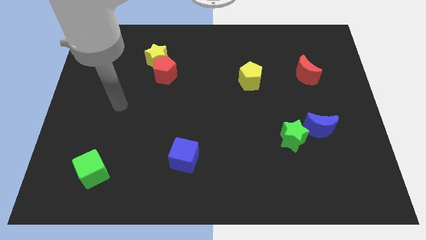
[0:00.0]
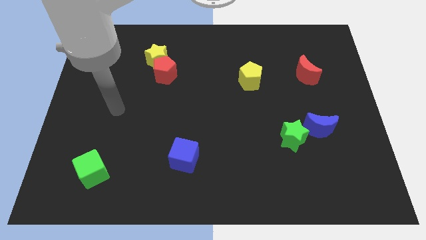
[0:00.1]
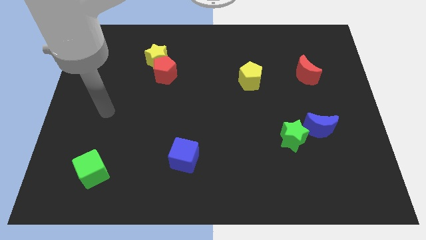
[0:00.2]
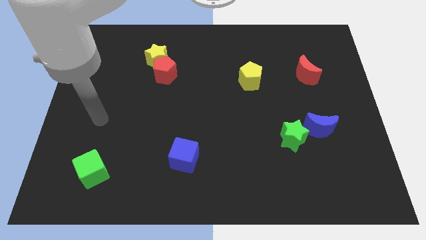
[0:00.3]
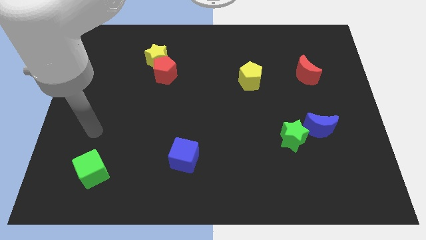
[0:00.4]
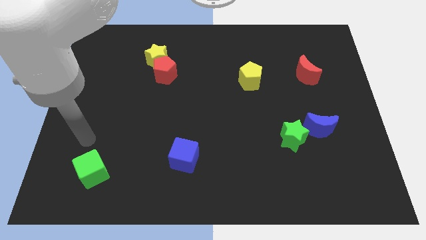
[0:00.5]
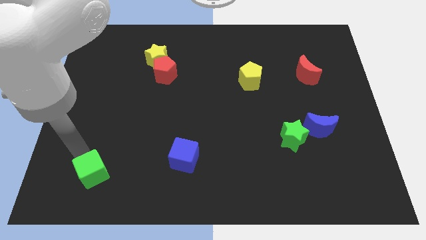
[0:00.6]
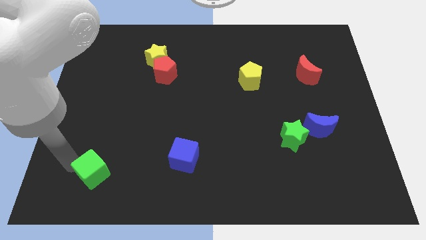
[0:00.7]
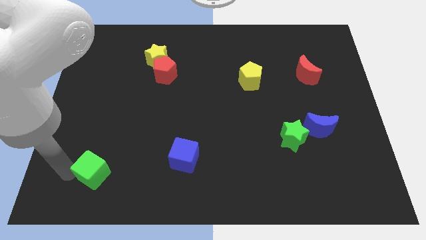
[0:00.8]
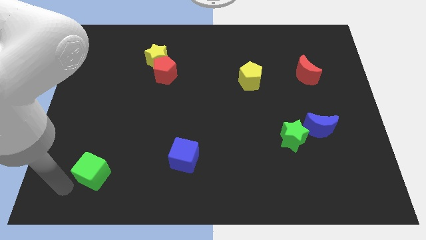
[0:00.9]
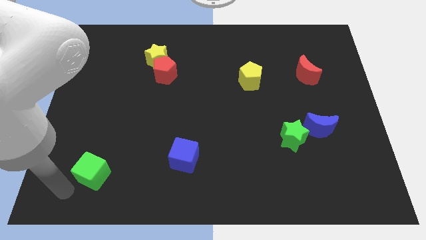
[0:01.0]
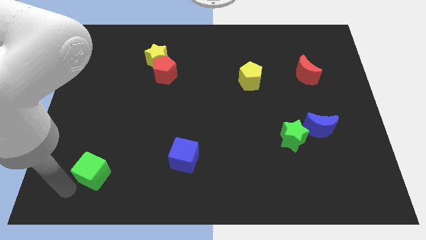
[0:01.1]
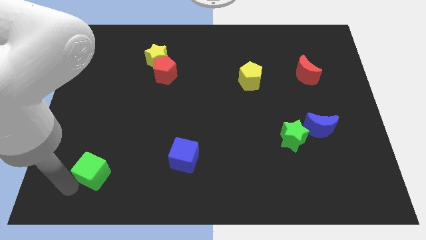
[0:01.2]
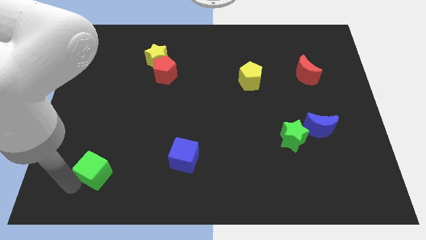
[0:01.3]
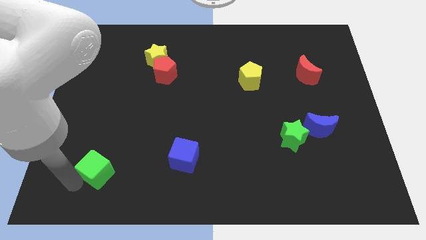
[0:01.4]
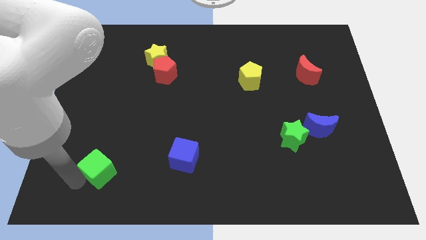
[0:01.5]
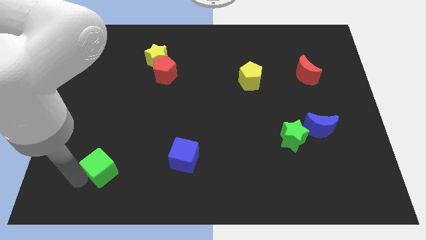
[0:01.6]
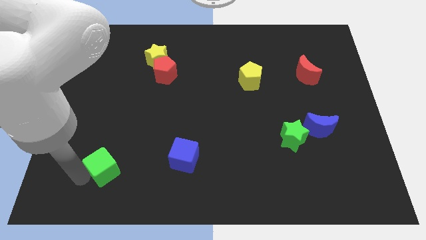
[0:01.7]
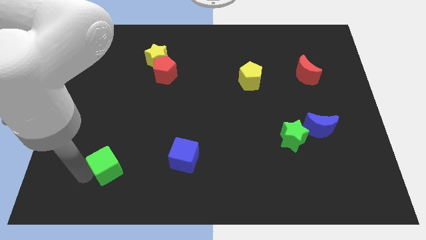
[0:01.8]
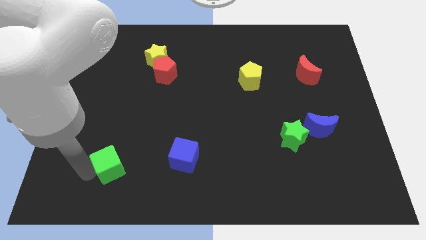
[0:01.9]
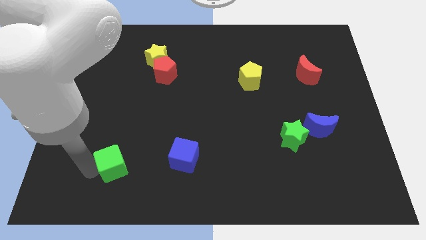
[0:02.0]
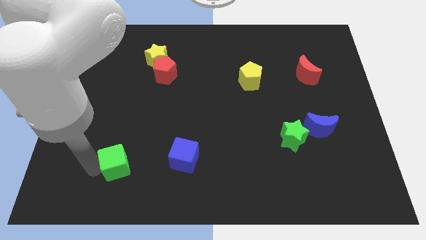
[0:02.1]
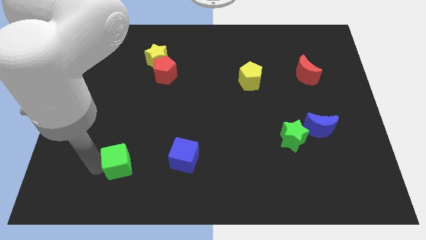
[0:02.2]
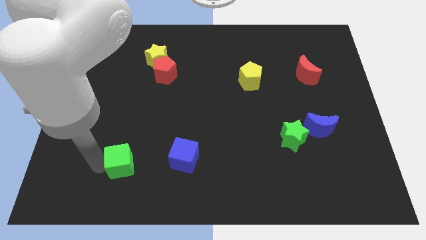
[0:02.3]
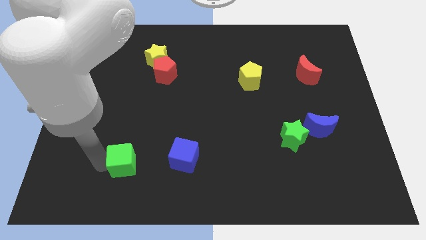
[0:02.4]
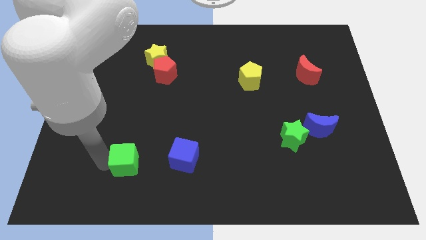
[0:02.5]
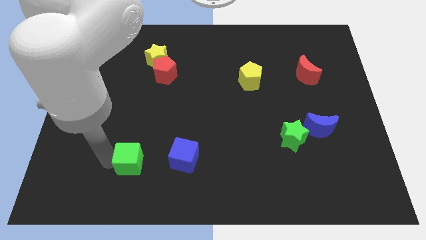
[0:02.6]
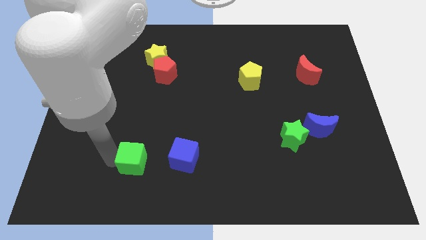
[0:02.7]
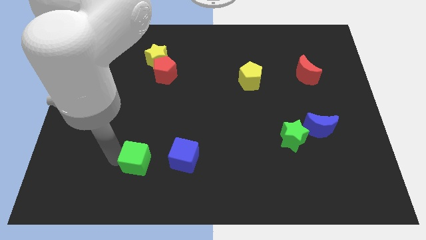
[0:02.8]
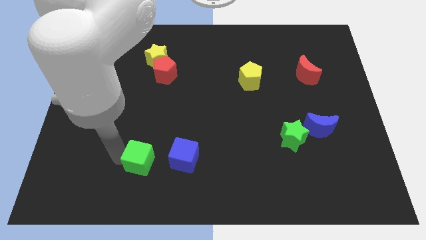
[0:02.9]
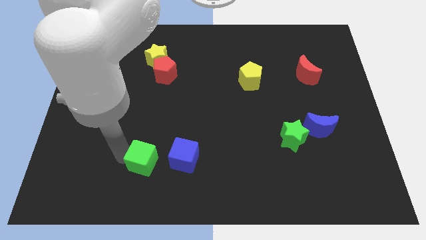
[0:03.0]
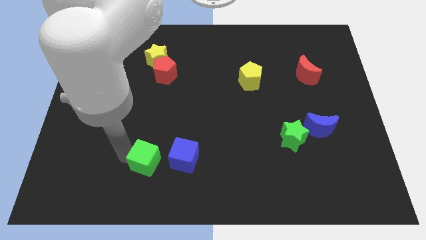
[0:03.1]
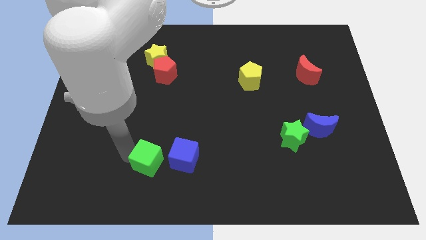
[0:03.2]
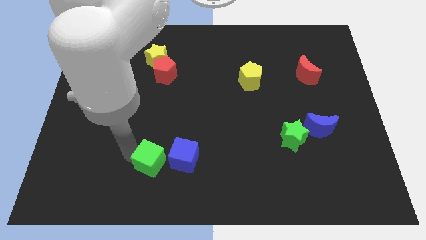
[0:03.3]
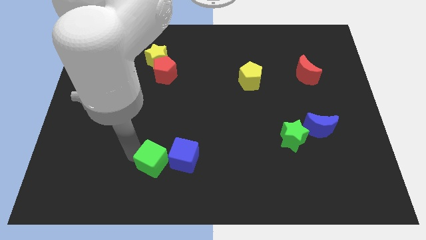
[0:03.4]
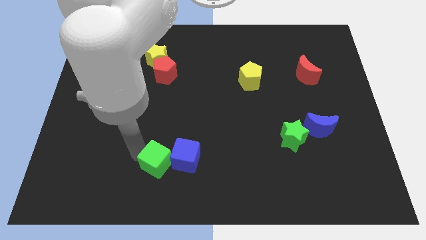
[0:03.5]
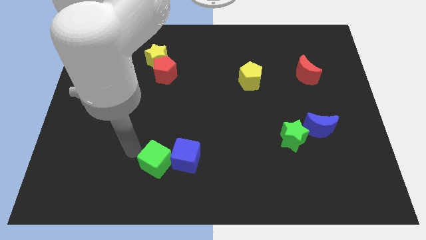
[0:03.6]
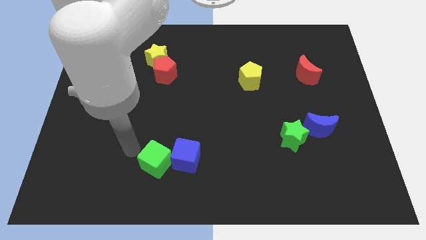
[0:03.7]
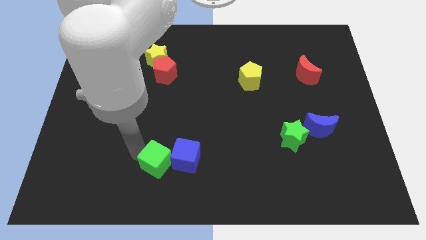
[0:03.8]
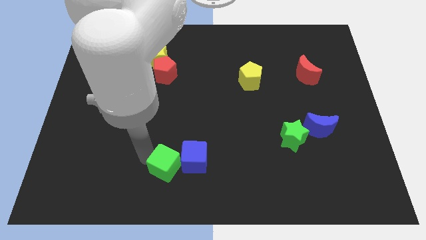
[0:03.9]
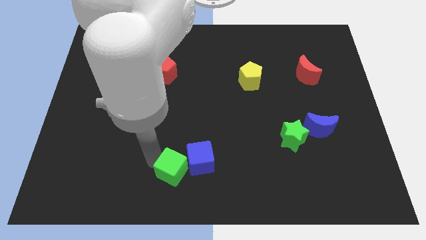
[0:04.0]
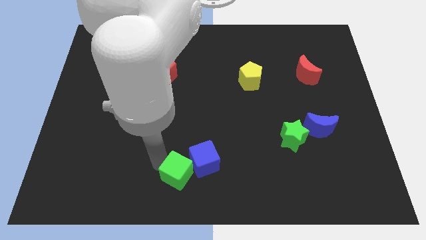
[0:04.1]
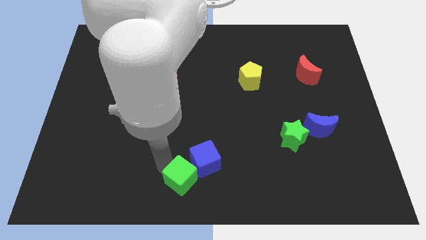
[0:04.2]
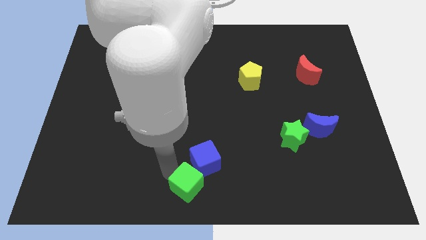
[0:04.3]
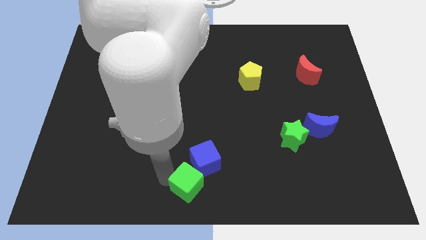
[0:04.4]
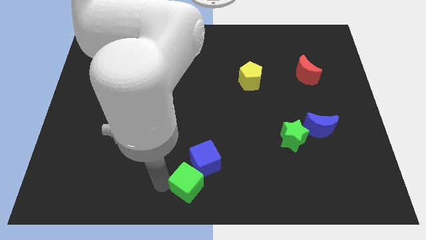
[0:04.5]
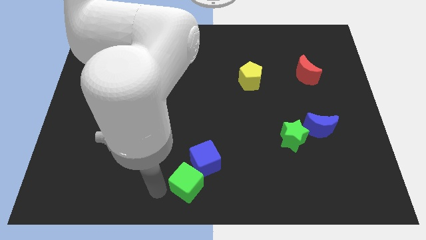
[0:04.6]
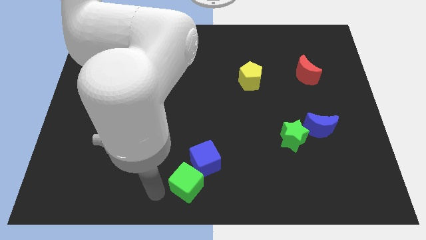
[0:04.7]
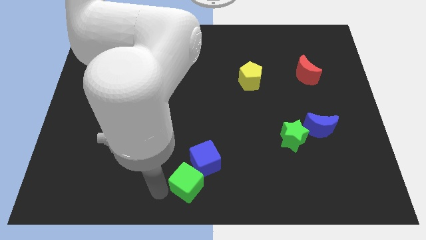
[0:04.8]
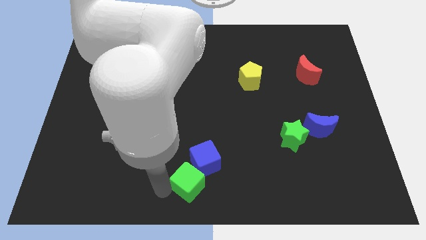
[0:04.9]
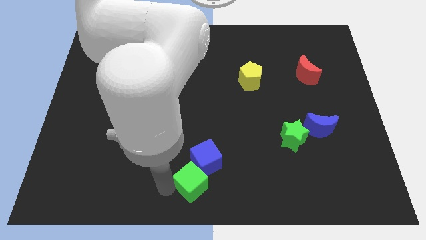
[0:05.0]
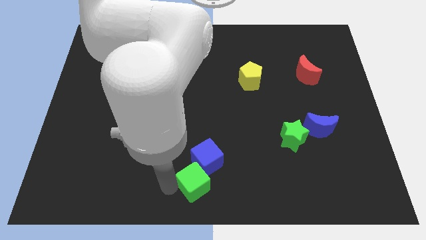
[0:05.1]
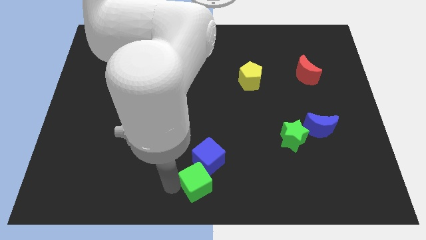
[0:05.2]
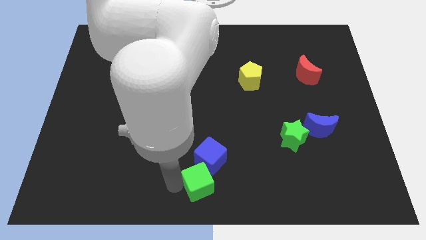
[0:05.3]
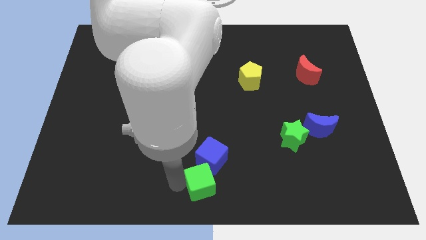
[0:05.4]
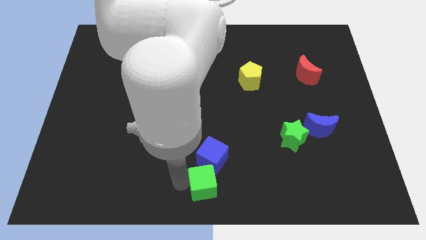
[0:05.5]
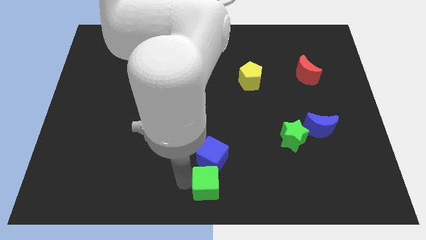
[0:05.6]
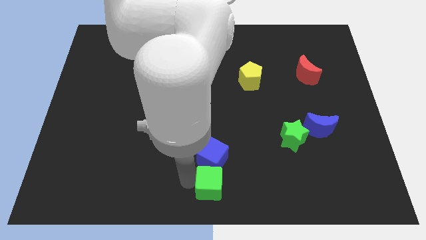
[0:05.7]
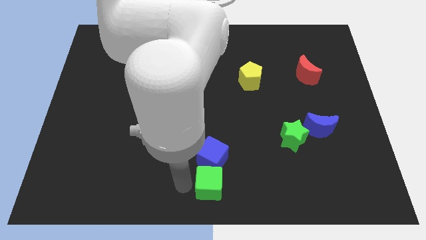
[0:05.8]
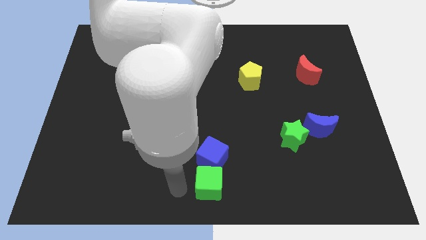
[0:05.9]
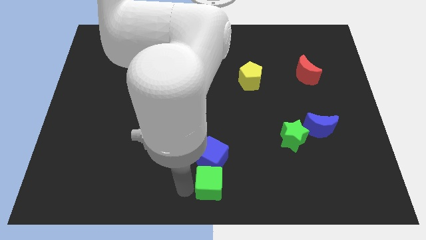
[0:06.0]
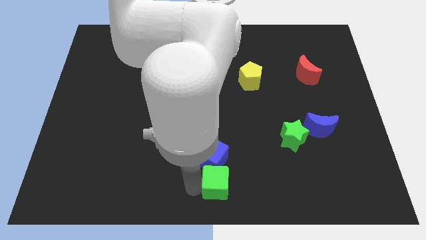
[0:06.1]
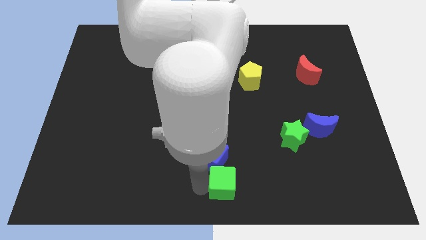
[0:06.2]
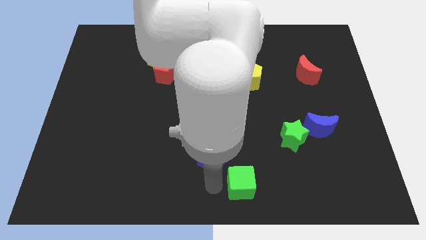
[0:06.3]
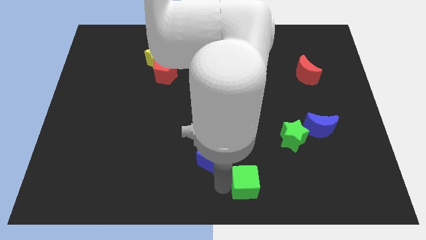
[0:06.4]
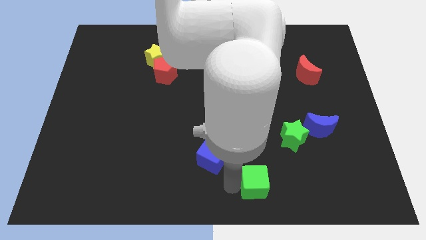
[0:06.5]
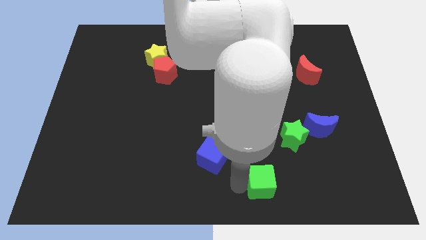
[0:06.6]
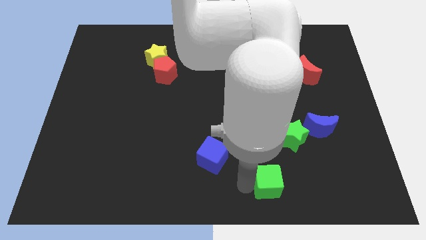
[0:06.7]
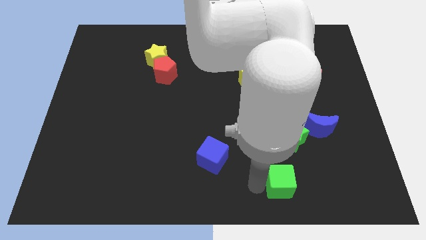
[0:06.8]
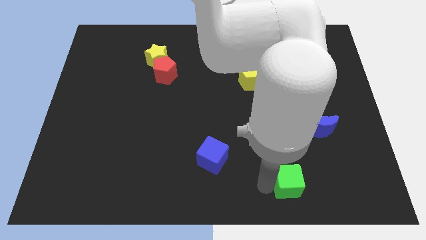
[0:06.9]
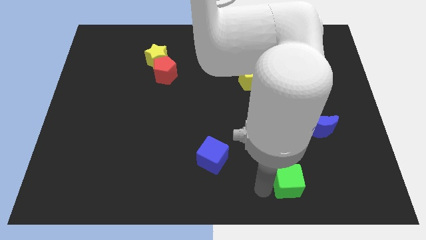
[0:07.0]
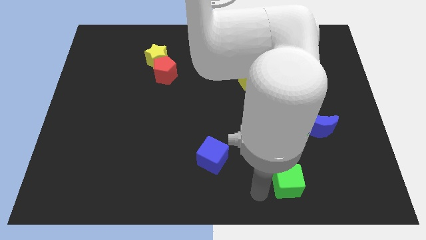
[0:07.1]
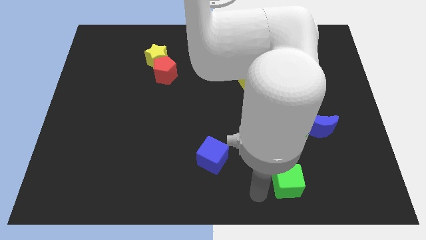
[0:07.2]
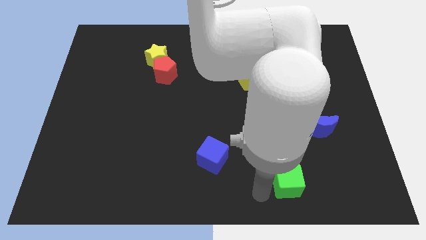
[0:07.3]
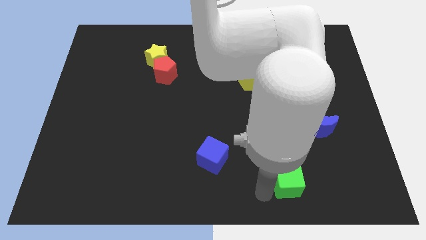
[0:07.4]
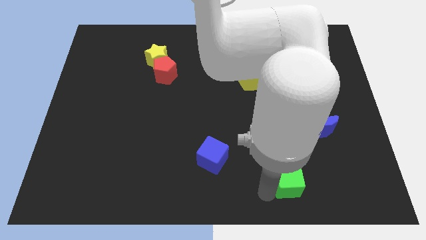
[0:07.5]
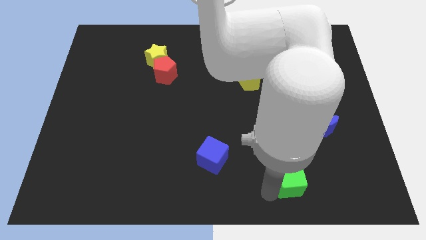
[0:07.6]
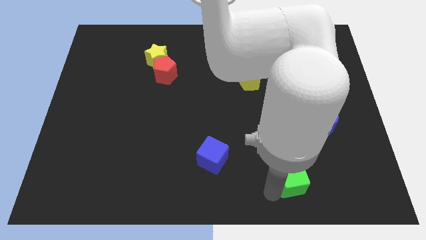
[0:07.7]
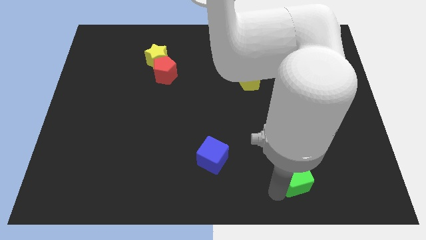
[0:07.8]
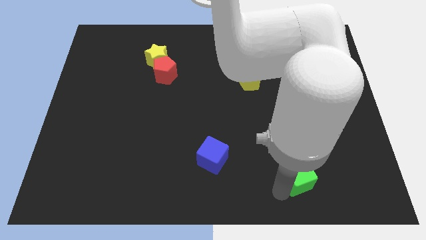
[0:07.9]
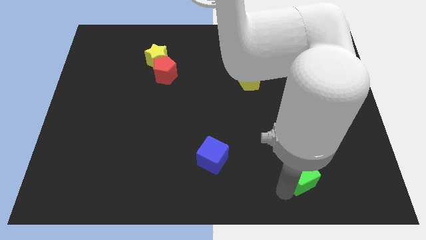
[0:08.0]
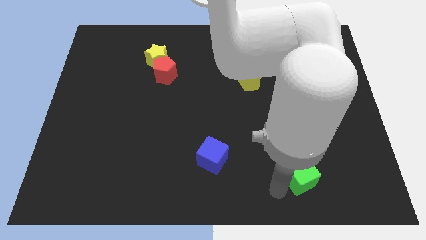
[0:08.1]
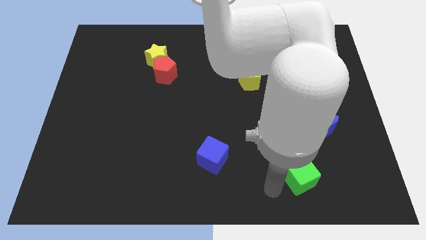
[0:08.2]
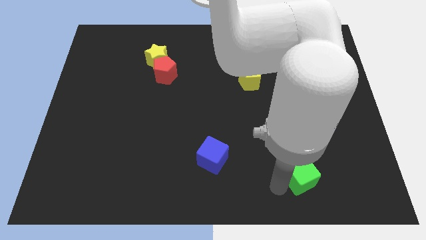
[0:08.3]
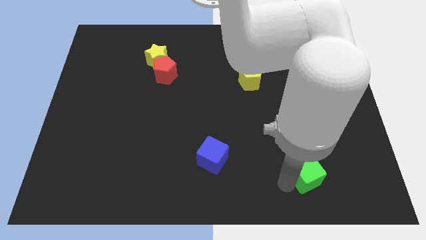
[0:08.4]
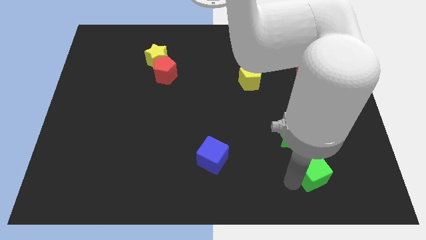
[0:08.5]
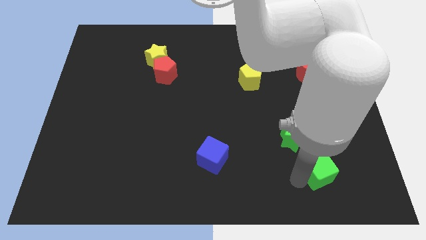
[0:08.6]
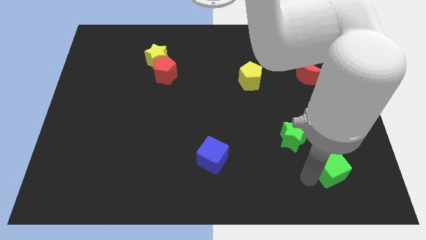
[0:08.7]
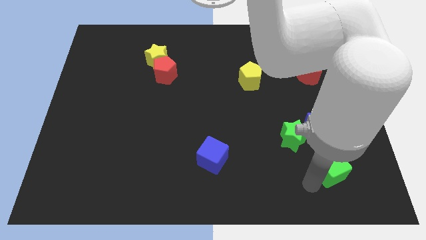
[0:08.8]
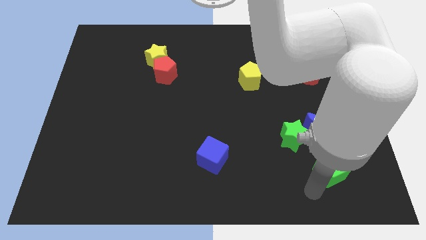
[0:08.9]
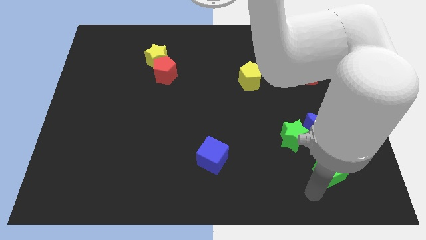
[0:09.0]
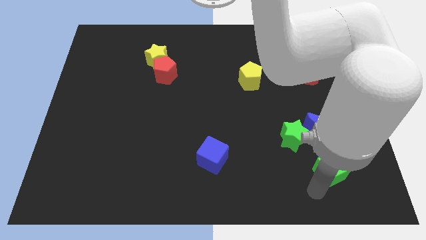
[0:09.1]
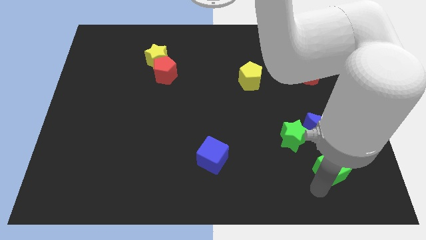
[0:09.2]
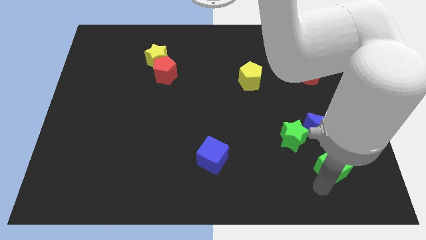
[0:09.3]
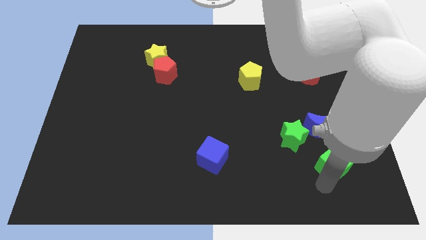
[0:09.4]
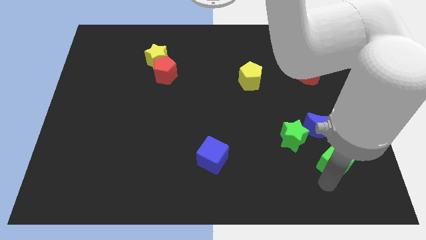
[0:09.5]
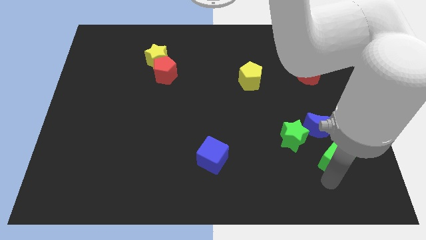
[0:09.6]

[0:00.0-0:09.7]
push the green cube to the bottom right of the blue moon
